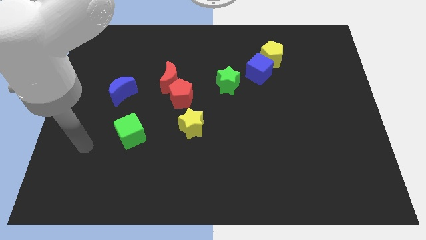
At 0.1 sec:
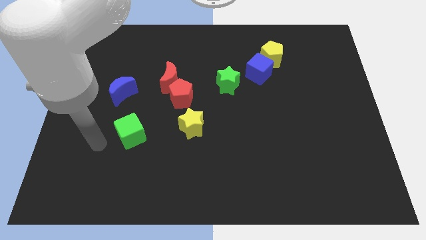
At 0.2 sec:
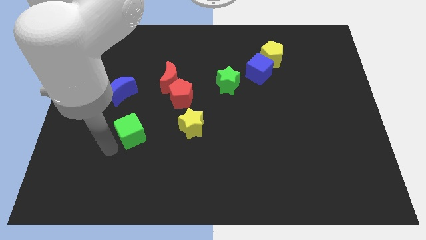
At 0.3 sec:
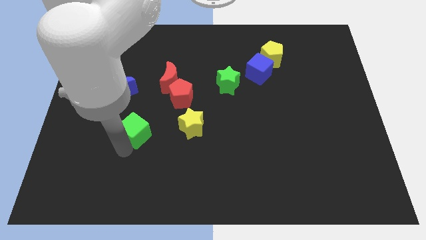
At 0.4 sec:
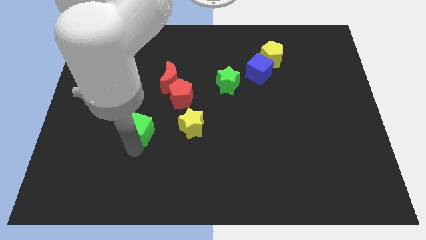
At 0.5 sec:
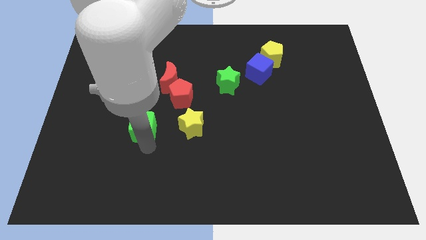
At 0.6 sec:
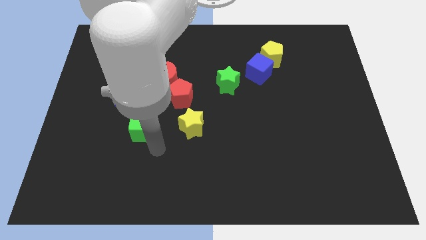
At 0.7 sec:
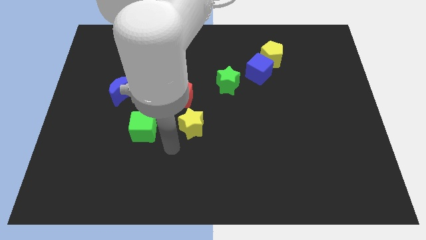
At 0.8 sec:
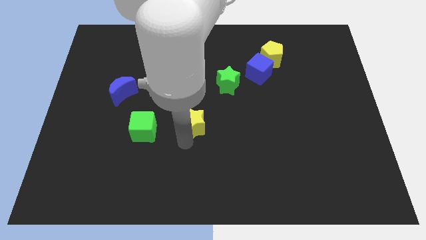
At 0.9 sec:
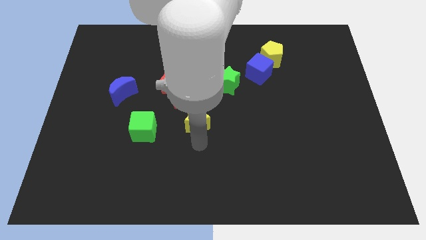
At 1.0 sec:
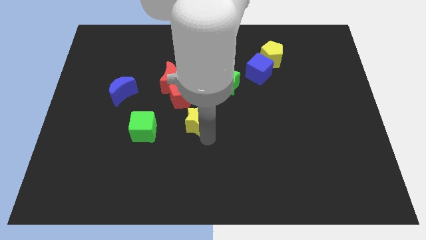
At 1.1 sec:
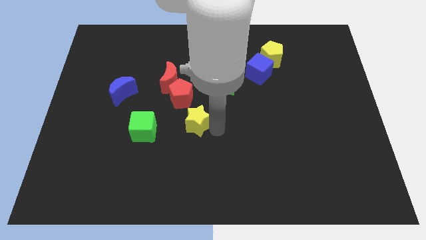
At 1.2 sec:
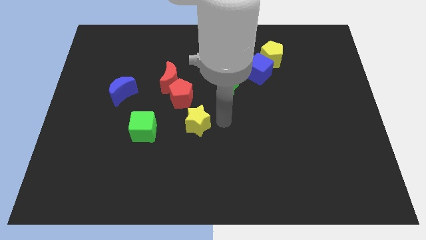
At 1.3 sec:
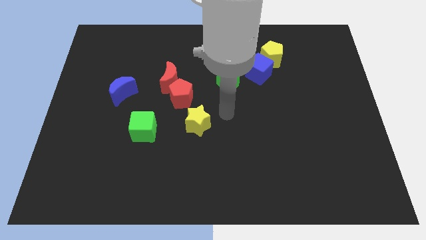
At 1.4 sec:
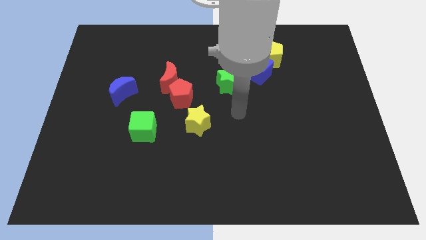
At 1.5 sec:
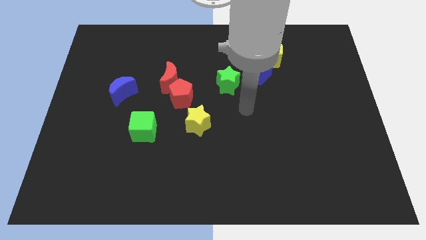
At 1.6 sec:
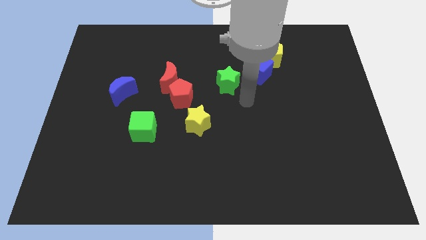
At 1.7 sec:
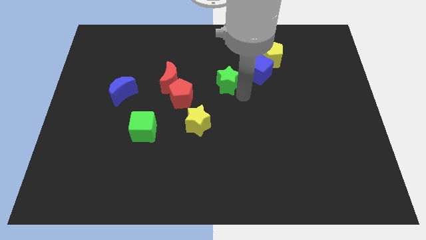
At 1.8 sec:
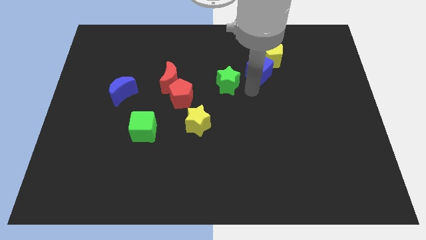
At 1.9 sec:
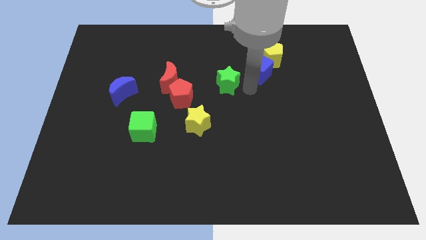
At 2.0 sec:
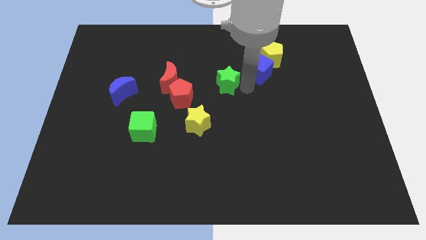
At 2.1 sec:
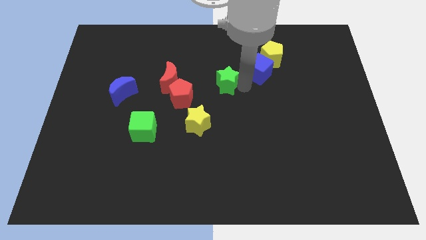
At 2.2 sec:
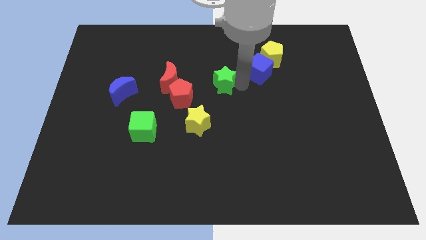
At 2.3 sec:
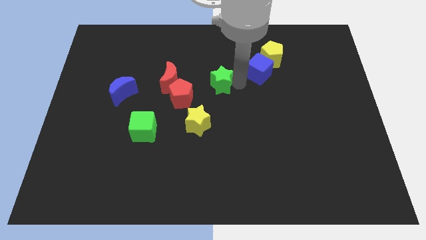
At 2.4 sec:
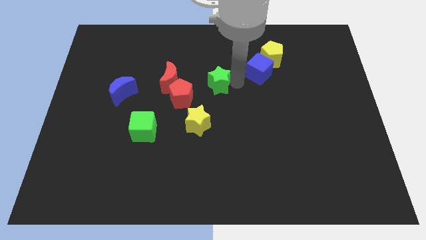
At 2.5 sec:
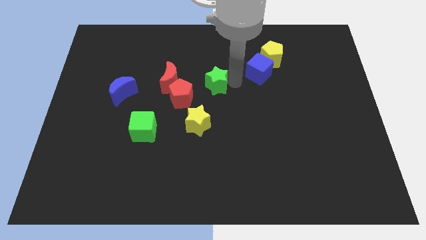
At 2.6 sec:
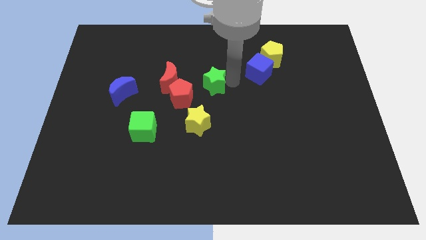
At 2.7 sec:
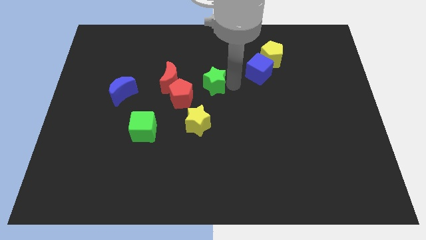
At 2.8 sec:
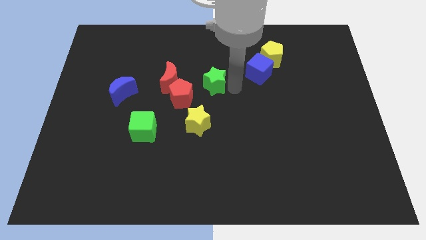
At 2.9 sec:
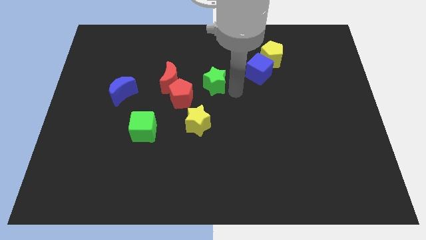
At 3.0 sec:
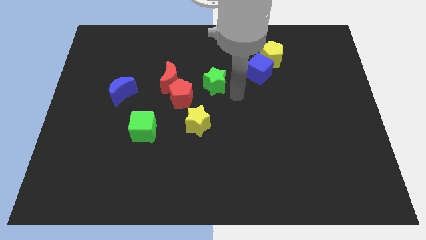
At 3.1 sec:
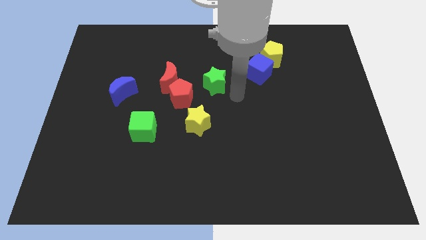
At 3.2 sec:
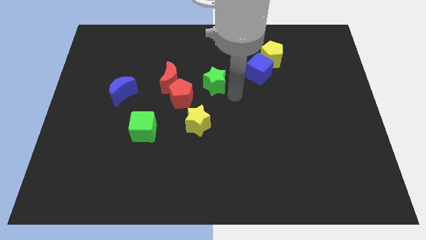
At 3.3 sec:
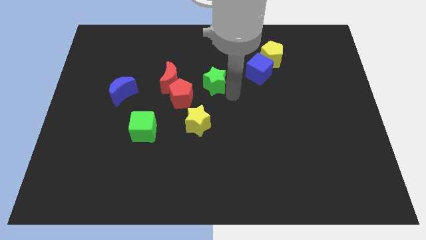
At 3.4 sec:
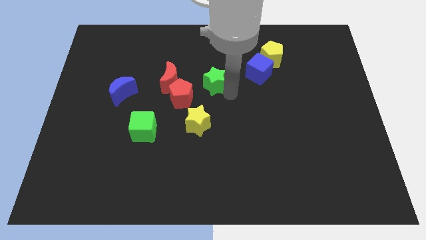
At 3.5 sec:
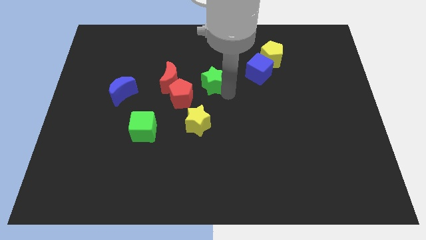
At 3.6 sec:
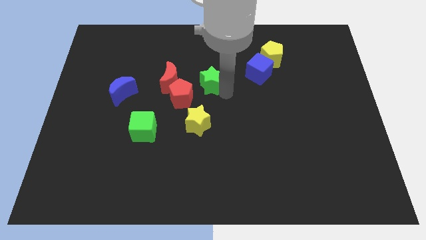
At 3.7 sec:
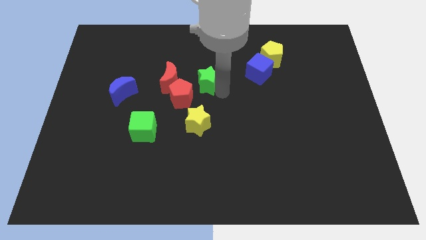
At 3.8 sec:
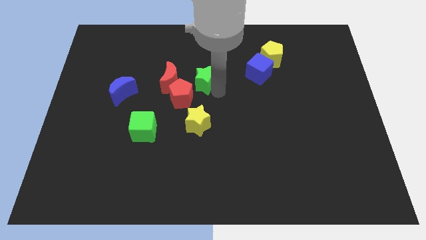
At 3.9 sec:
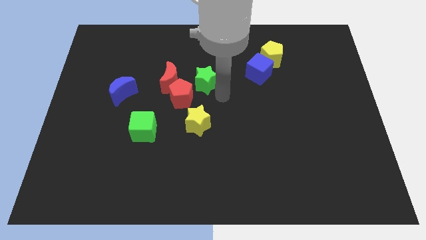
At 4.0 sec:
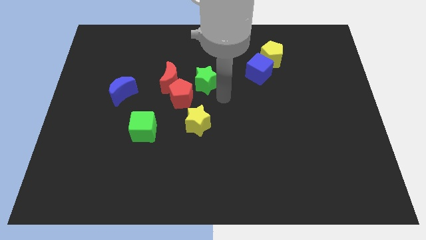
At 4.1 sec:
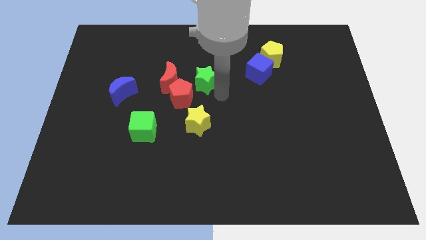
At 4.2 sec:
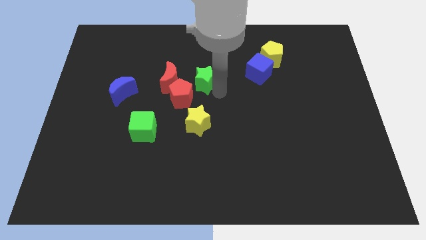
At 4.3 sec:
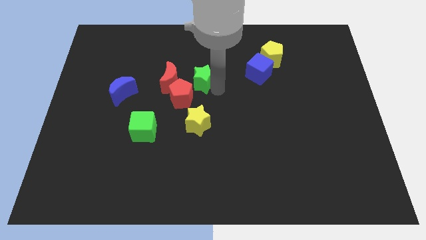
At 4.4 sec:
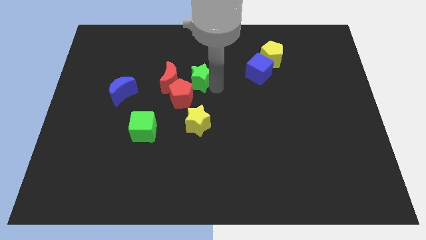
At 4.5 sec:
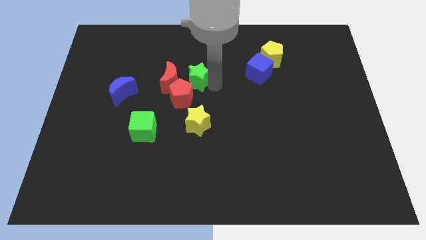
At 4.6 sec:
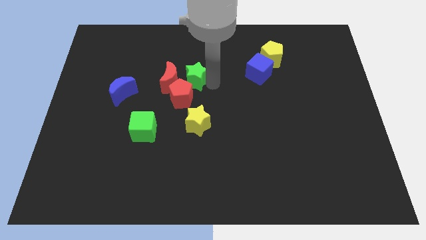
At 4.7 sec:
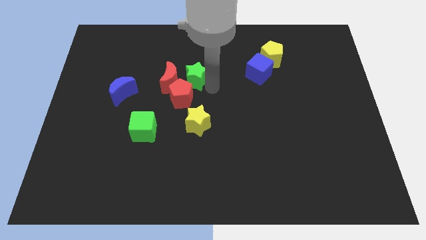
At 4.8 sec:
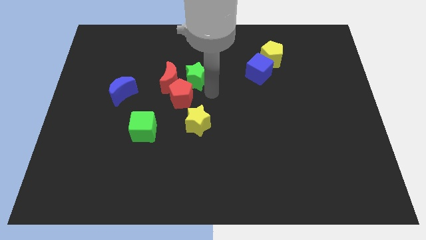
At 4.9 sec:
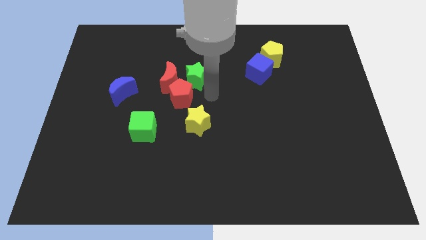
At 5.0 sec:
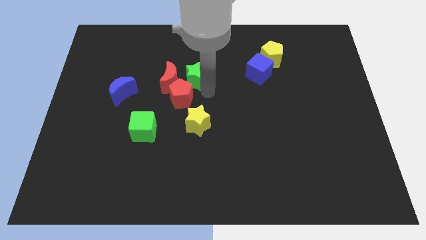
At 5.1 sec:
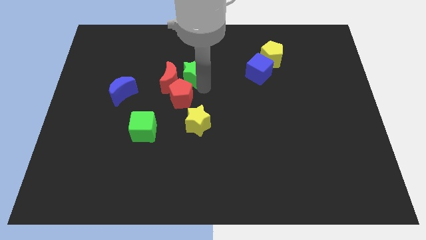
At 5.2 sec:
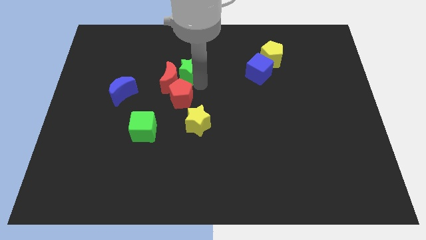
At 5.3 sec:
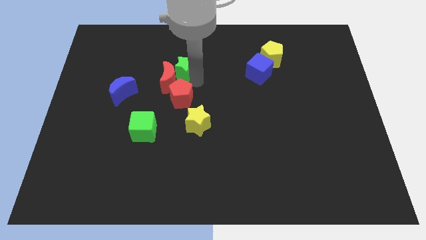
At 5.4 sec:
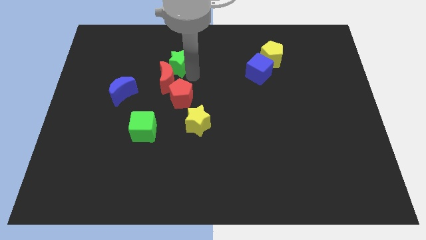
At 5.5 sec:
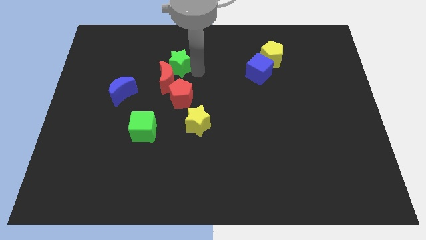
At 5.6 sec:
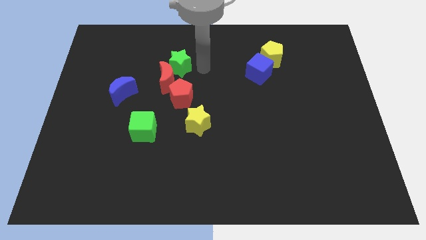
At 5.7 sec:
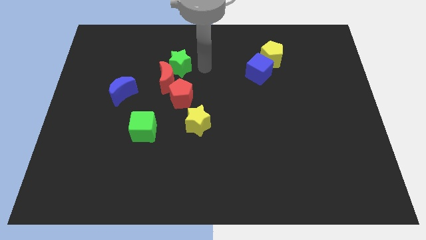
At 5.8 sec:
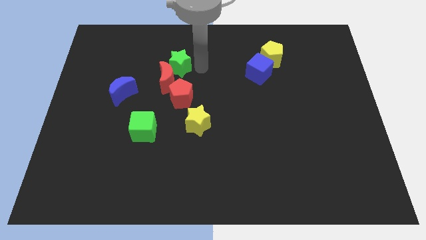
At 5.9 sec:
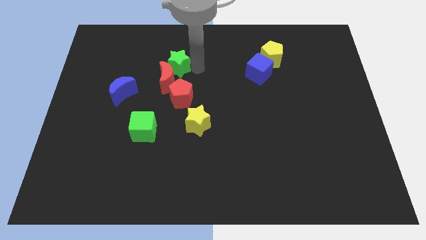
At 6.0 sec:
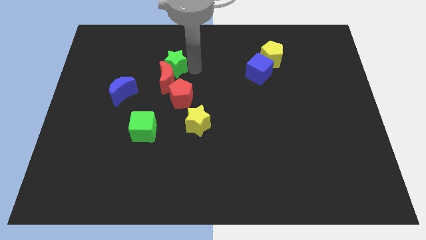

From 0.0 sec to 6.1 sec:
push the green star diagonally up and to the left of the red moon
